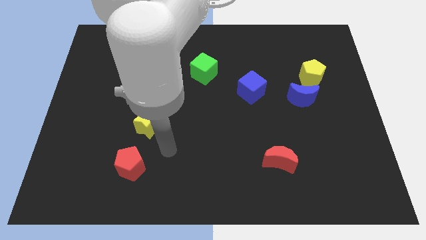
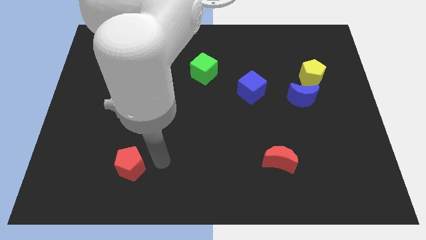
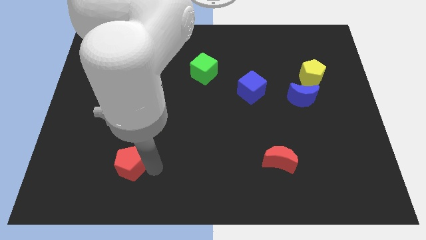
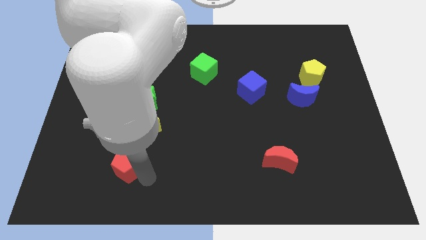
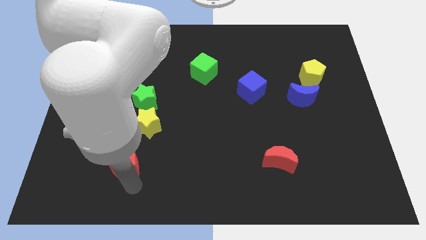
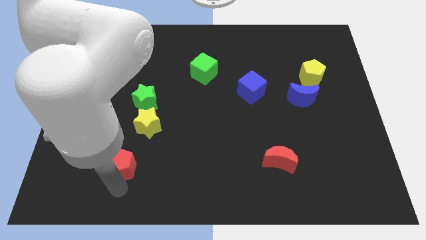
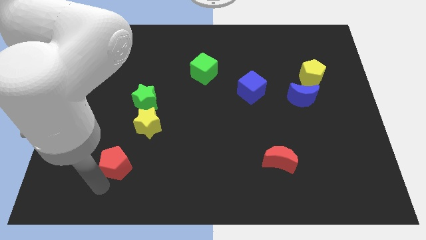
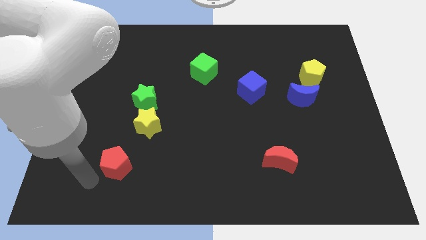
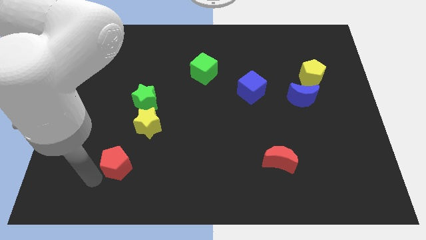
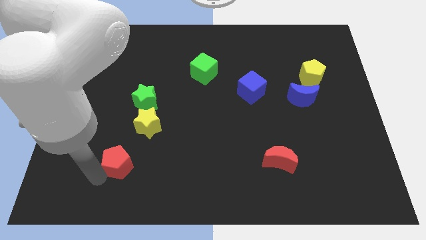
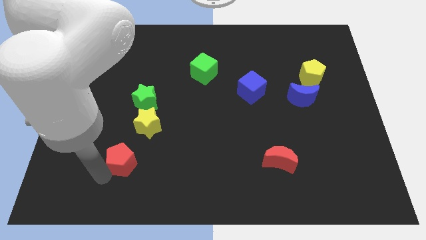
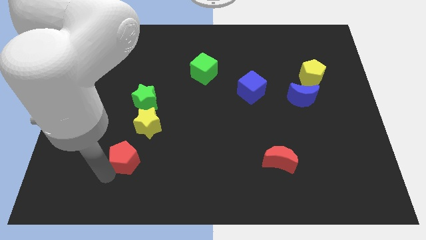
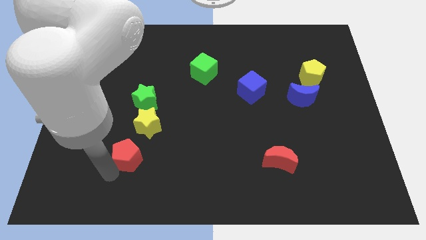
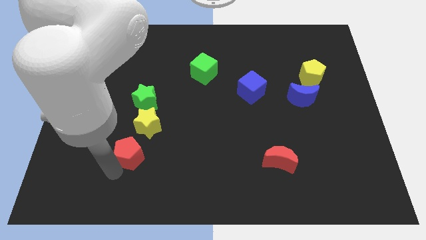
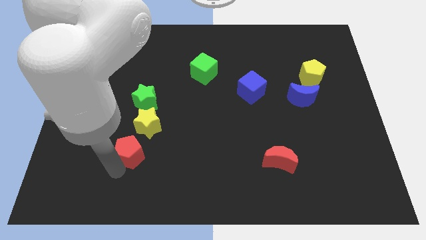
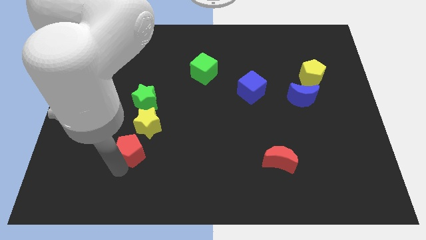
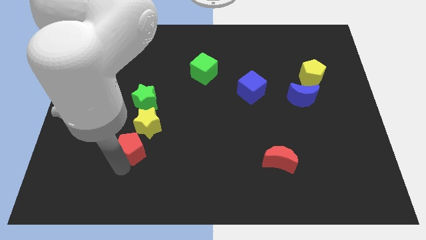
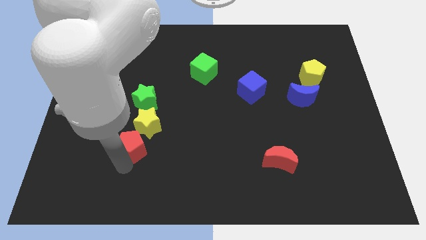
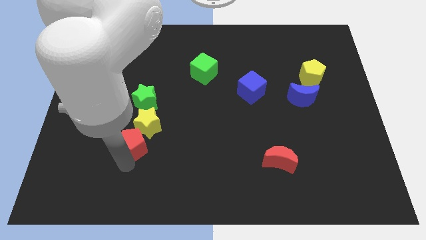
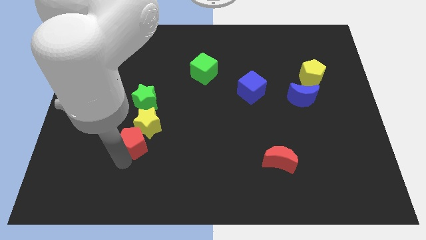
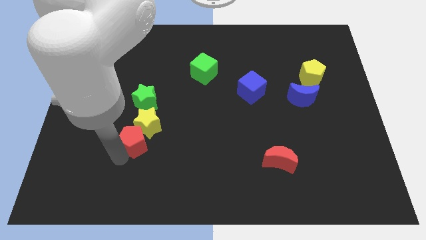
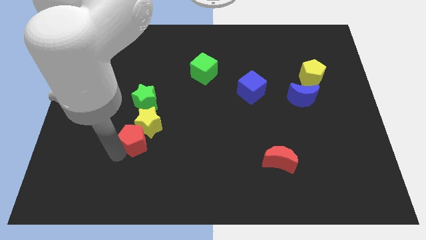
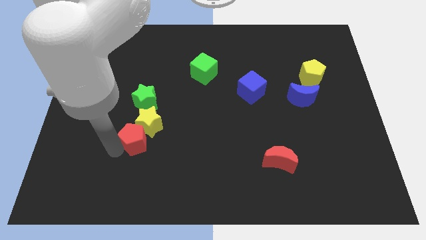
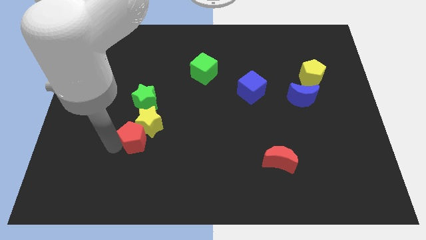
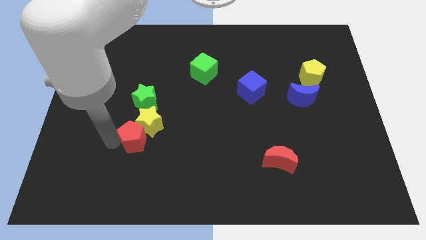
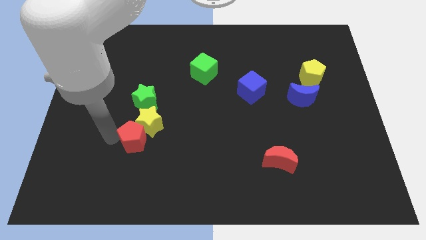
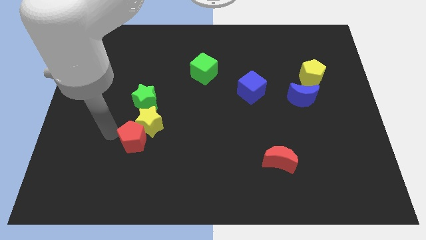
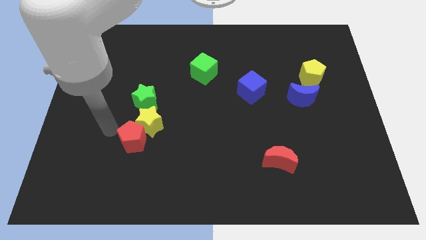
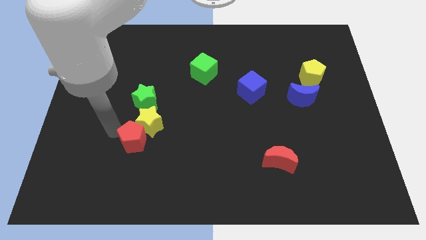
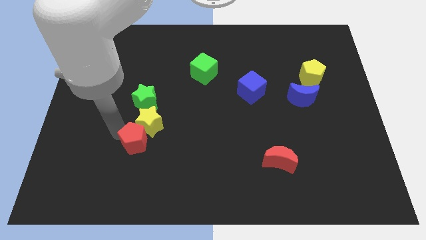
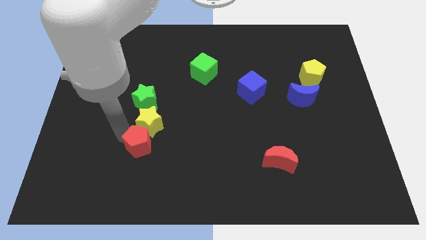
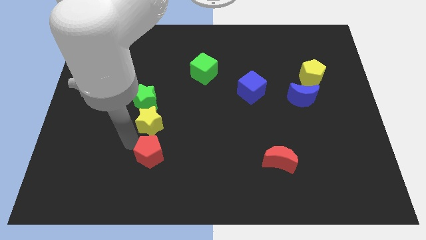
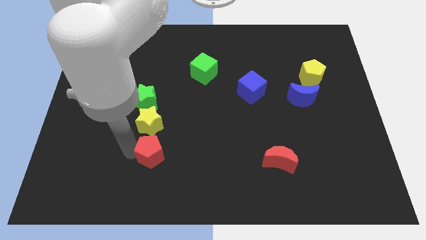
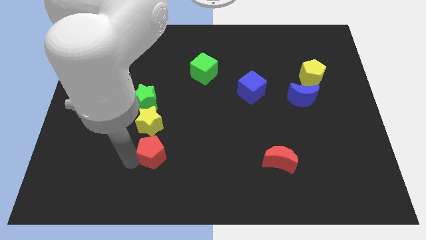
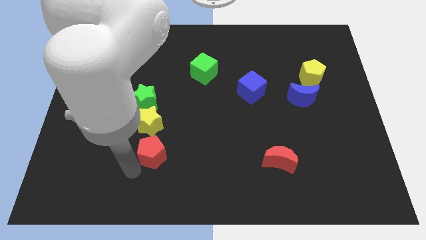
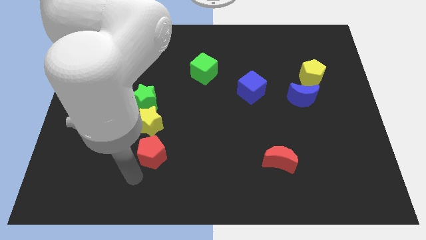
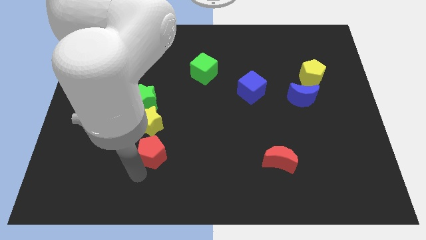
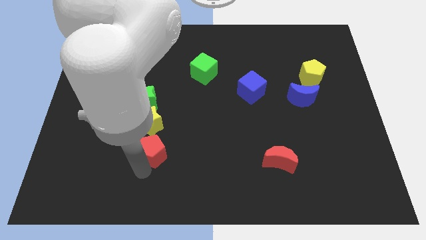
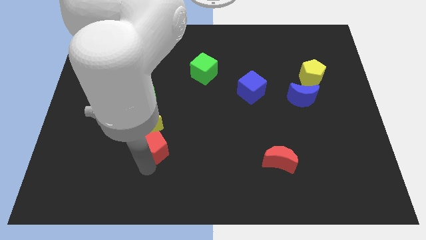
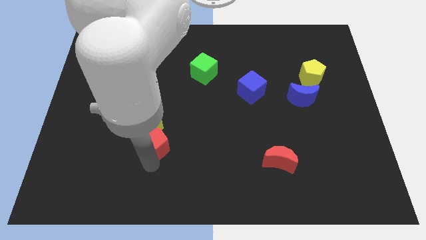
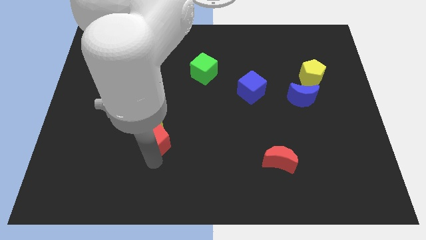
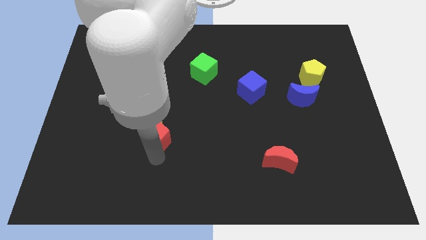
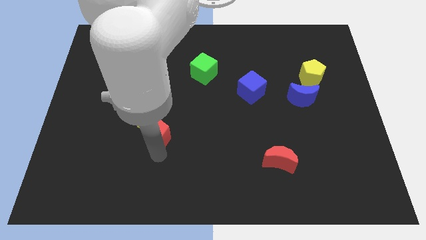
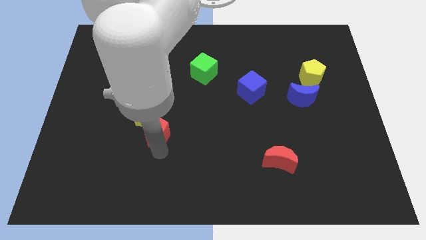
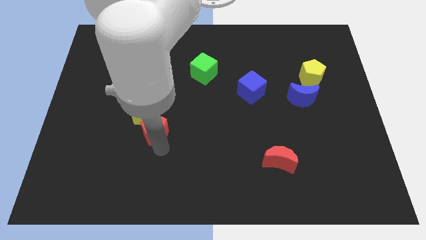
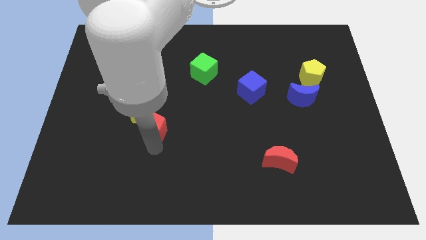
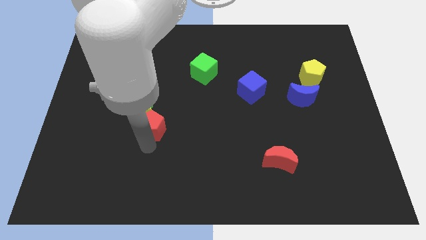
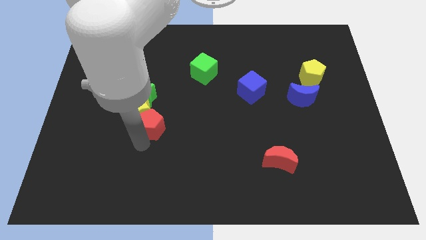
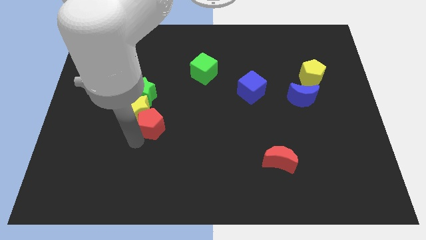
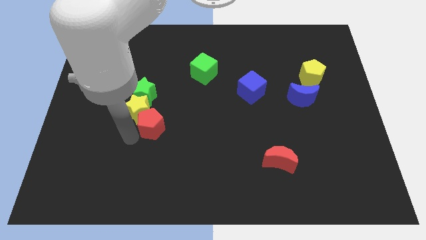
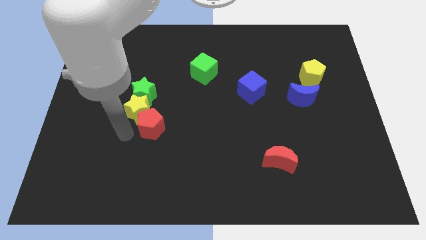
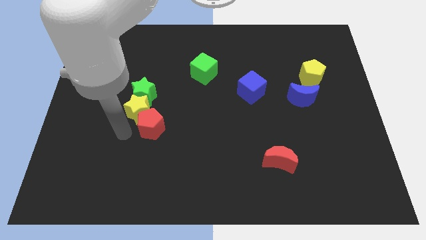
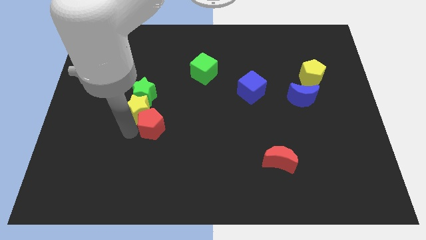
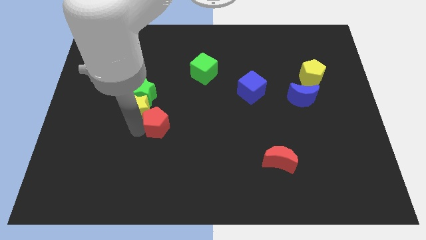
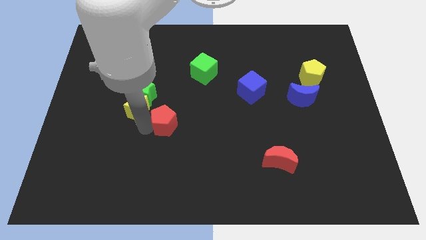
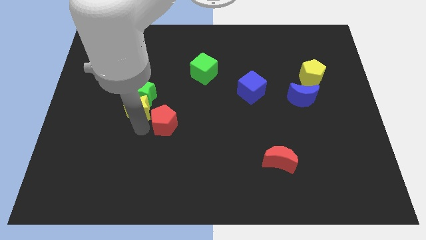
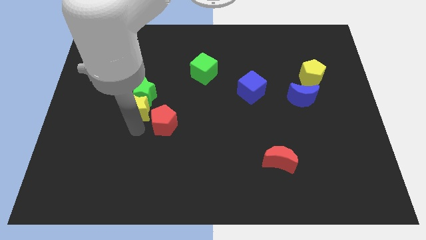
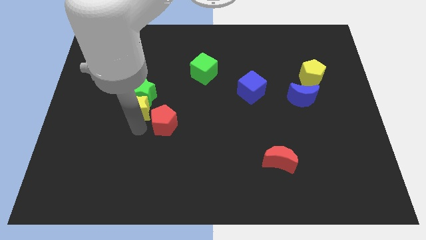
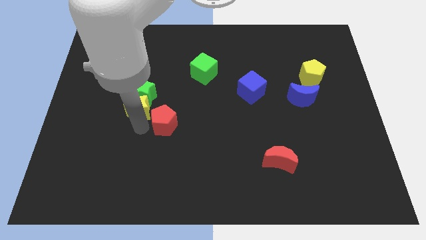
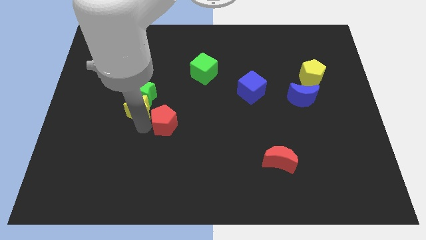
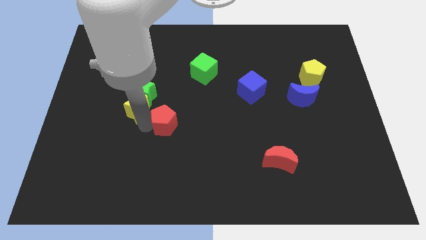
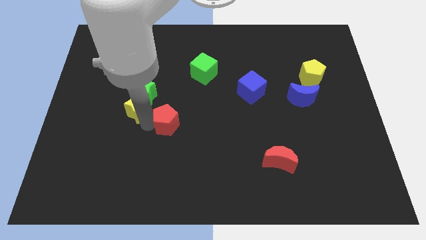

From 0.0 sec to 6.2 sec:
put the red pentagon to the middle
